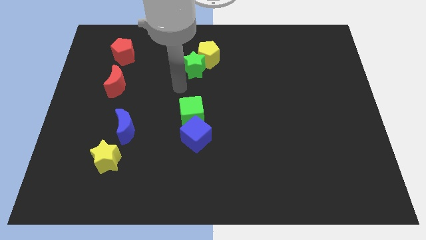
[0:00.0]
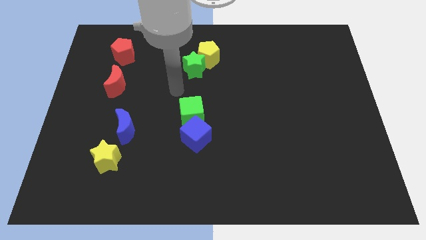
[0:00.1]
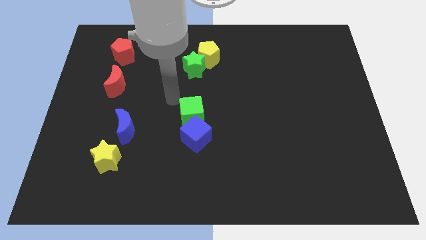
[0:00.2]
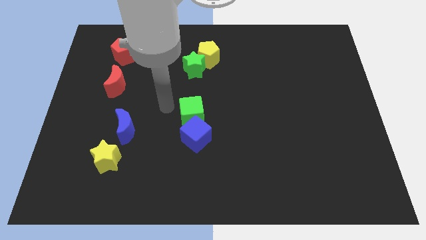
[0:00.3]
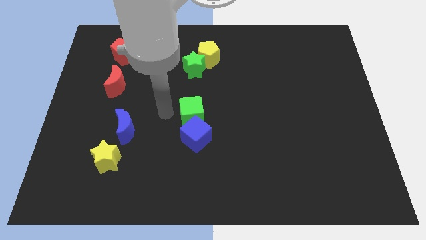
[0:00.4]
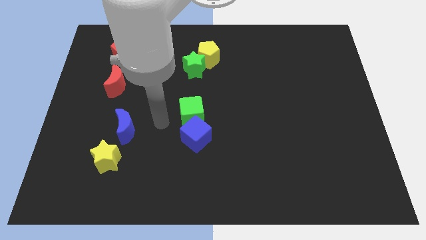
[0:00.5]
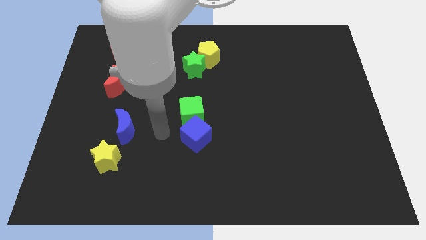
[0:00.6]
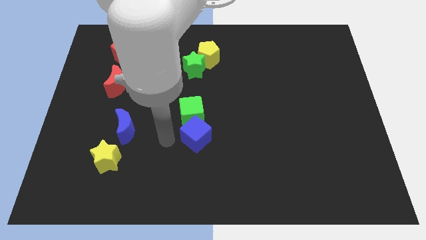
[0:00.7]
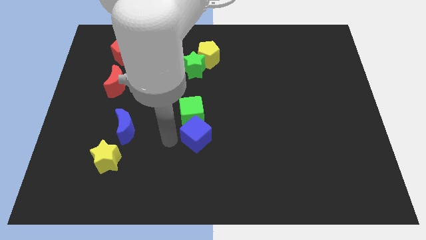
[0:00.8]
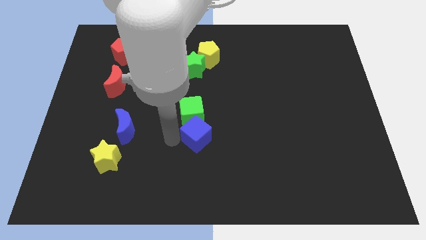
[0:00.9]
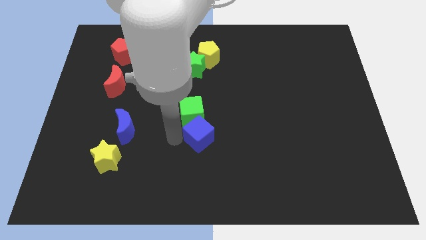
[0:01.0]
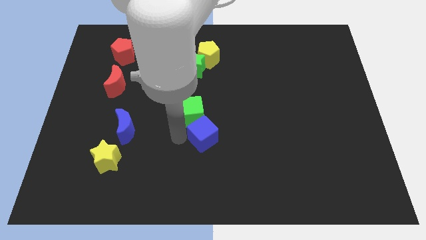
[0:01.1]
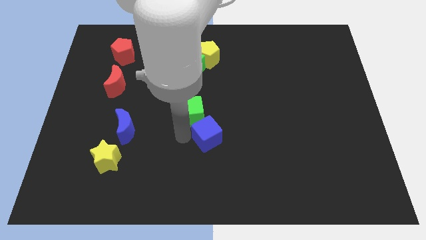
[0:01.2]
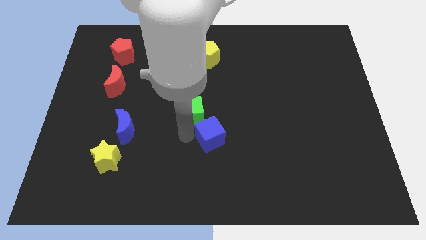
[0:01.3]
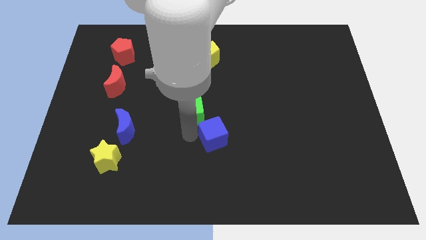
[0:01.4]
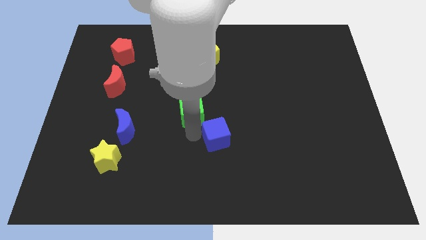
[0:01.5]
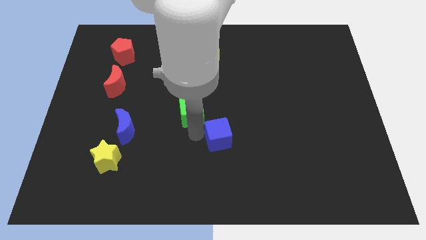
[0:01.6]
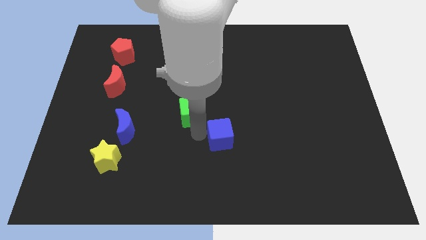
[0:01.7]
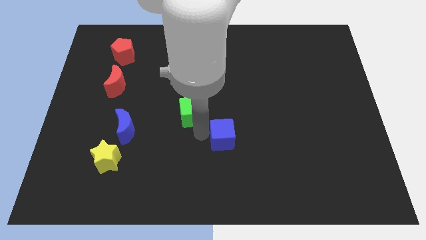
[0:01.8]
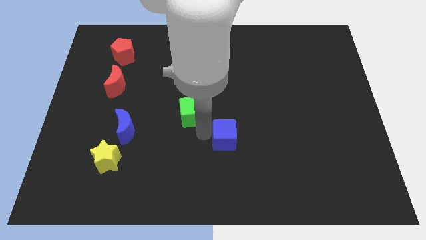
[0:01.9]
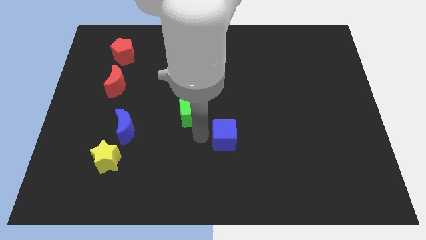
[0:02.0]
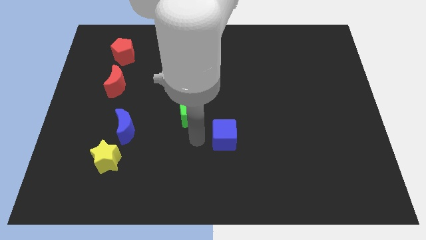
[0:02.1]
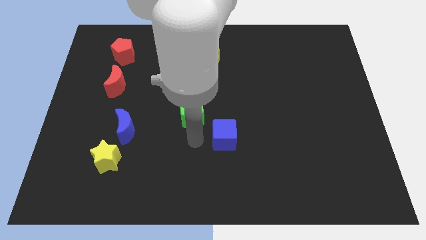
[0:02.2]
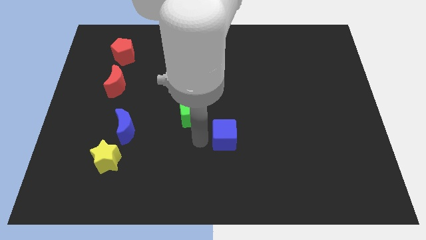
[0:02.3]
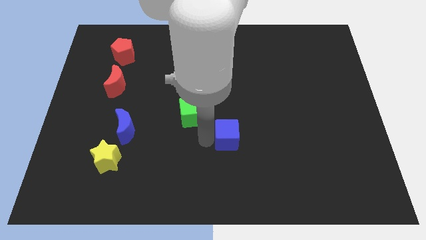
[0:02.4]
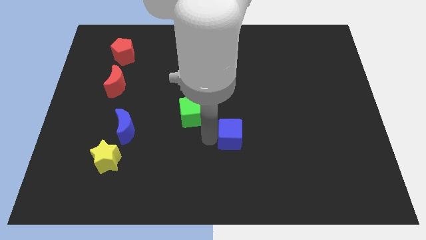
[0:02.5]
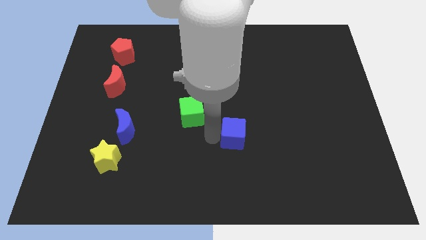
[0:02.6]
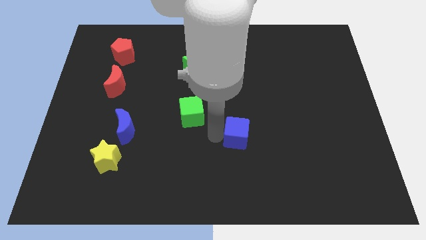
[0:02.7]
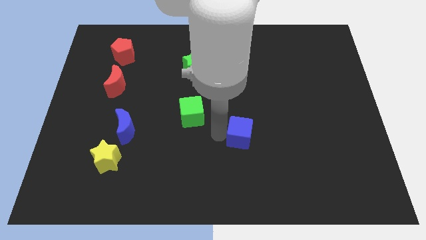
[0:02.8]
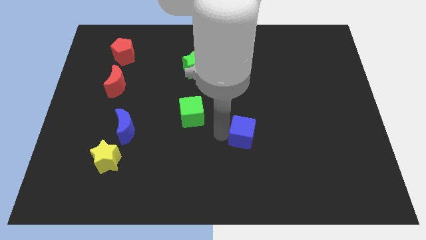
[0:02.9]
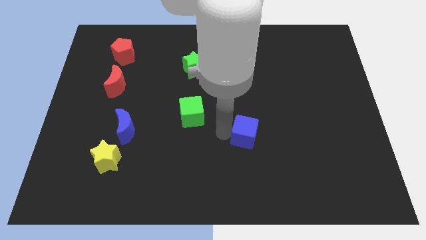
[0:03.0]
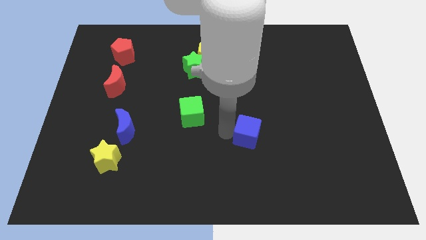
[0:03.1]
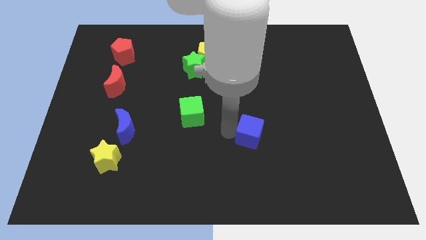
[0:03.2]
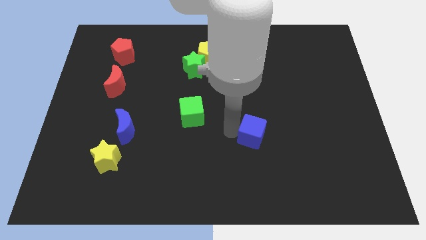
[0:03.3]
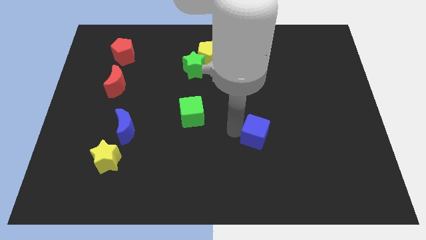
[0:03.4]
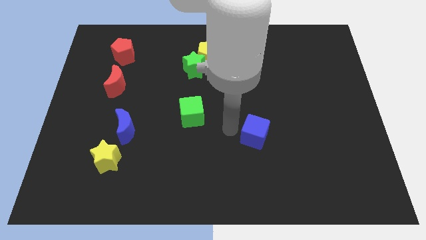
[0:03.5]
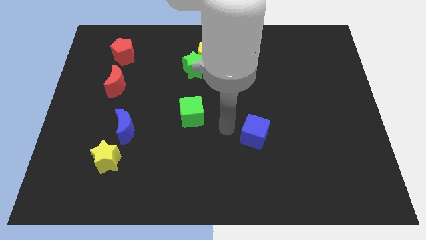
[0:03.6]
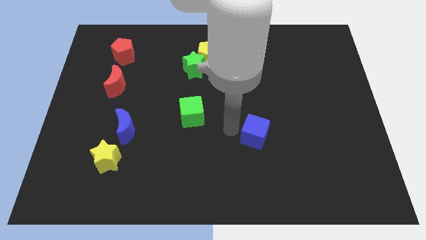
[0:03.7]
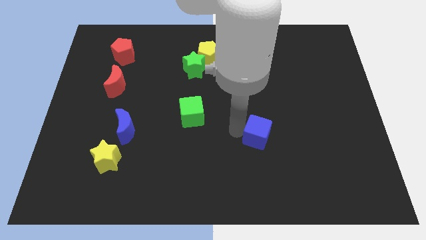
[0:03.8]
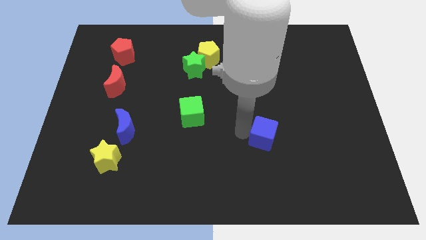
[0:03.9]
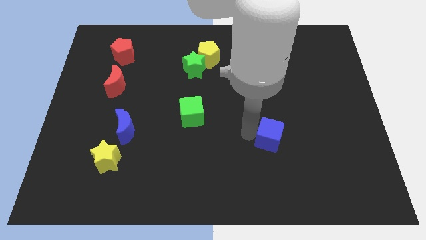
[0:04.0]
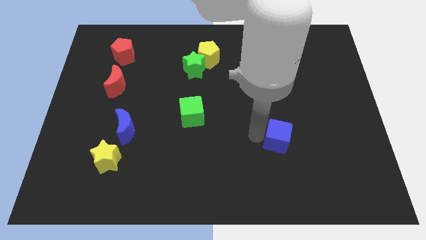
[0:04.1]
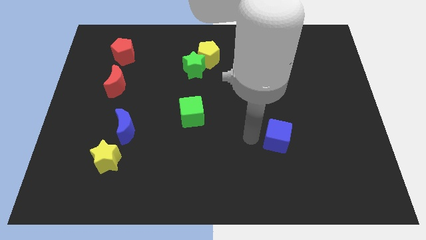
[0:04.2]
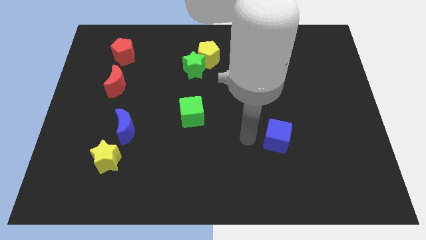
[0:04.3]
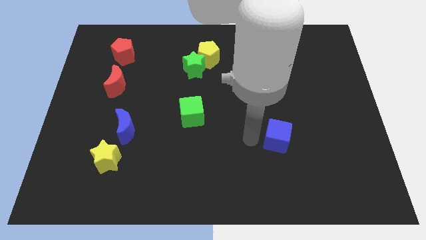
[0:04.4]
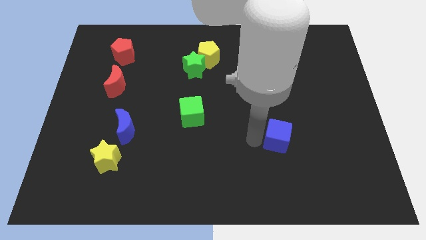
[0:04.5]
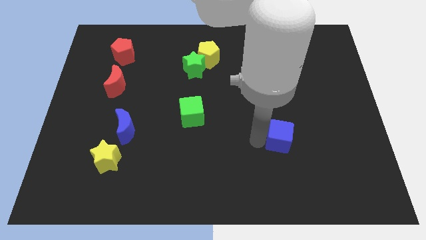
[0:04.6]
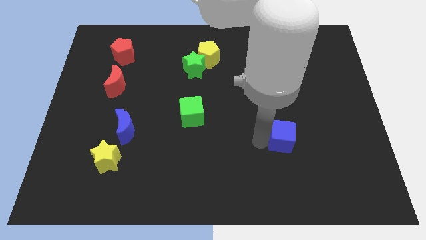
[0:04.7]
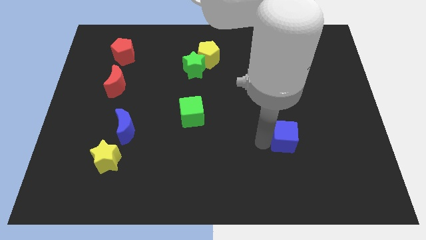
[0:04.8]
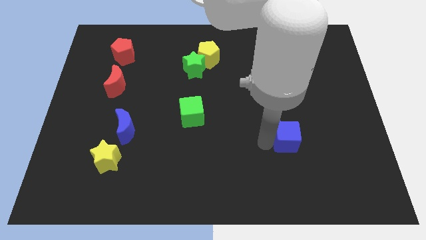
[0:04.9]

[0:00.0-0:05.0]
slide the blue cube to the right

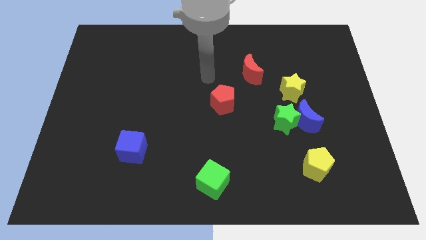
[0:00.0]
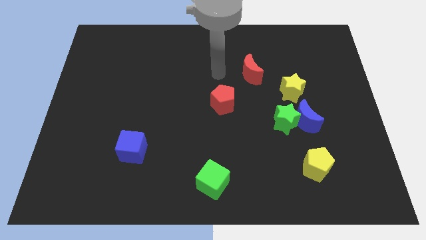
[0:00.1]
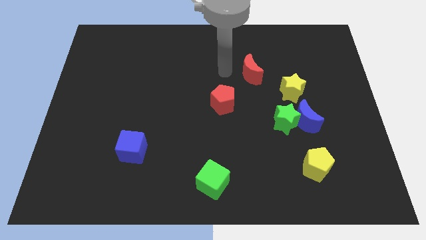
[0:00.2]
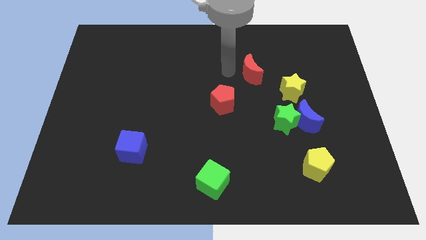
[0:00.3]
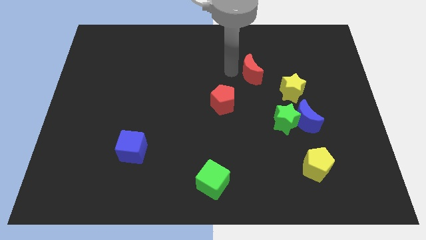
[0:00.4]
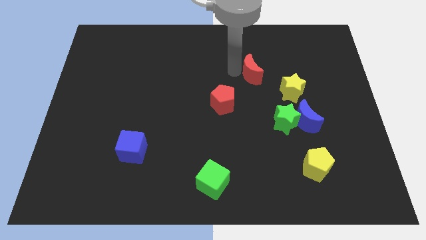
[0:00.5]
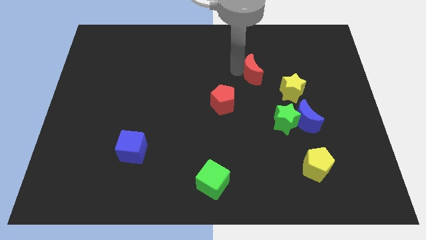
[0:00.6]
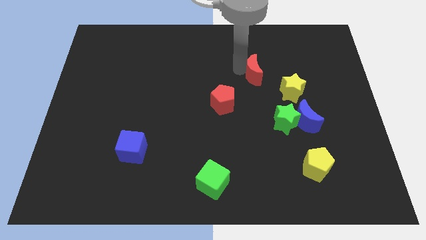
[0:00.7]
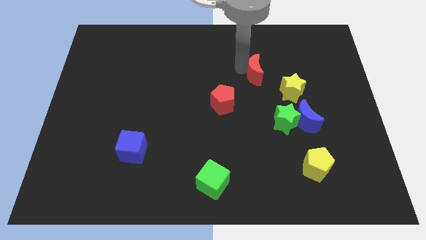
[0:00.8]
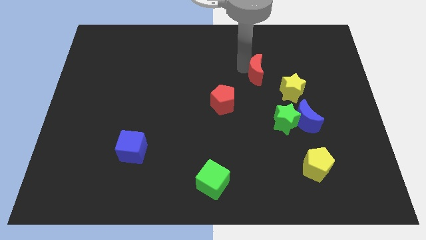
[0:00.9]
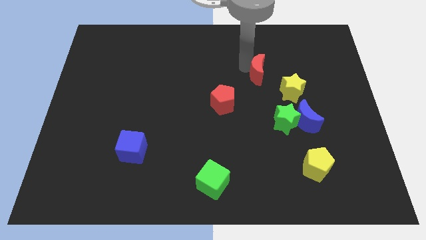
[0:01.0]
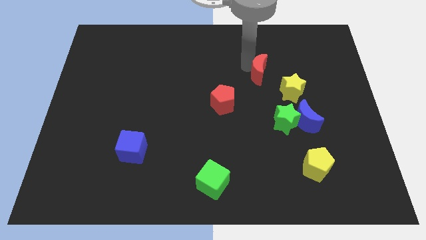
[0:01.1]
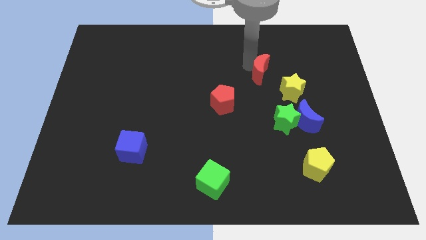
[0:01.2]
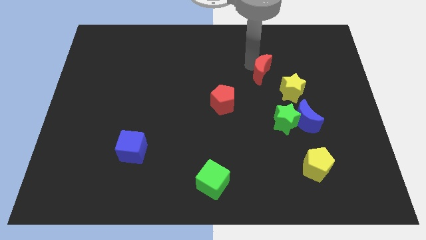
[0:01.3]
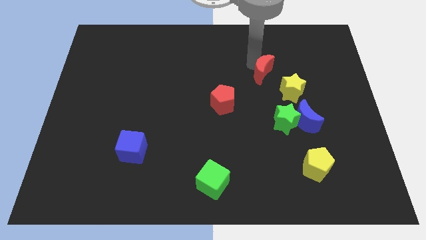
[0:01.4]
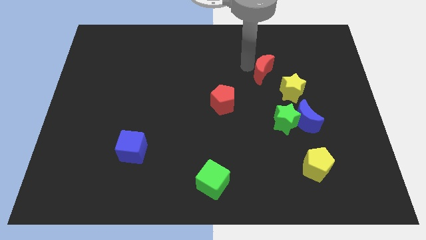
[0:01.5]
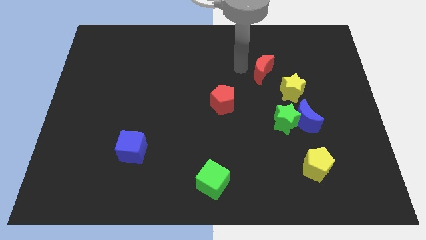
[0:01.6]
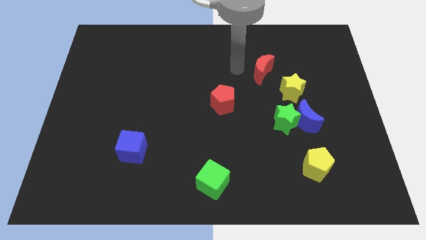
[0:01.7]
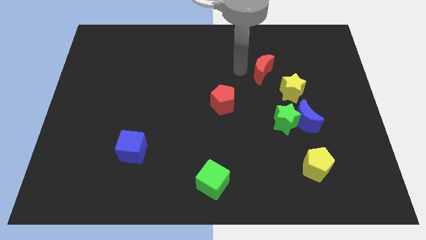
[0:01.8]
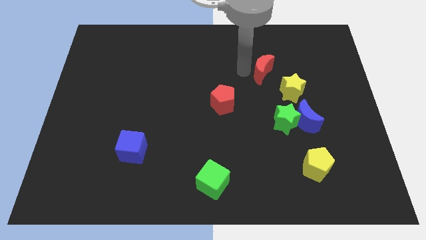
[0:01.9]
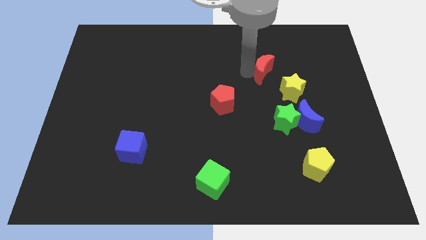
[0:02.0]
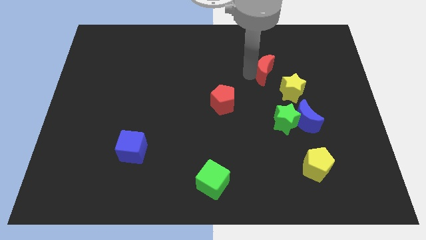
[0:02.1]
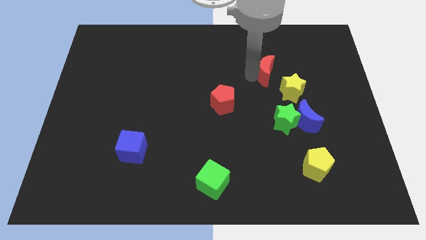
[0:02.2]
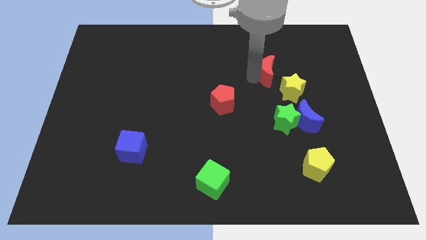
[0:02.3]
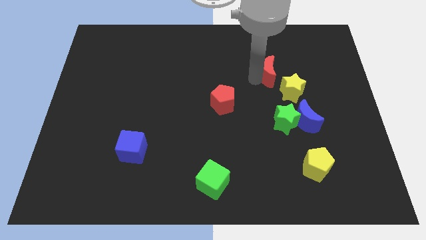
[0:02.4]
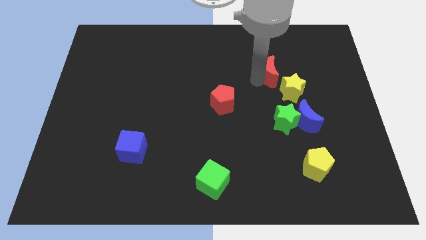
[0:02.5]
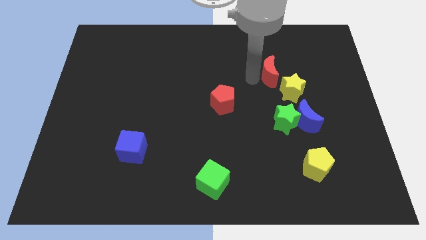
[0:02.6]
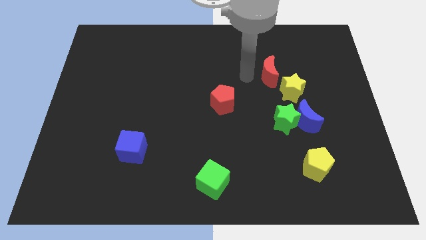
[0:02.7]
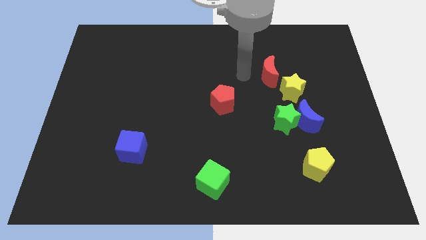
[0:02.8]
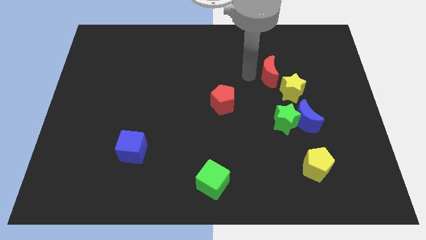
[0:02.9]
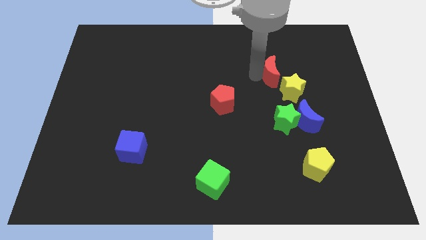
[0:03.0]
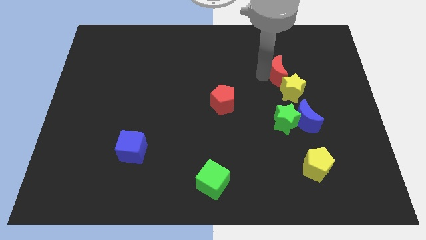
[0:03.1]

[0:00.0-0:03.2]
move the red moon slightly to the right
